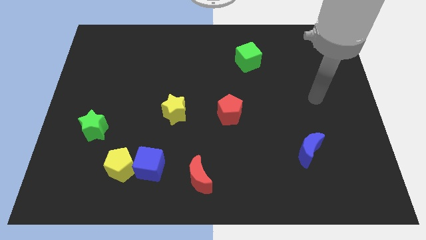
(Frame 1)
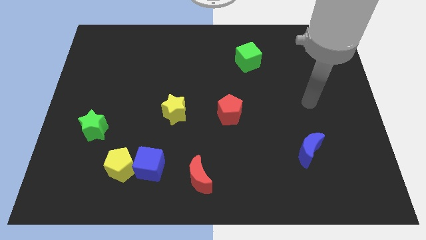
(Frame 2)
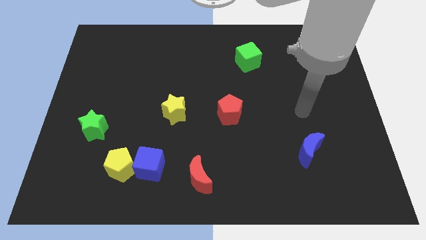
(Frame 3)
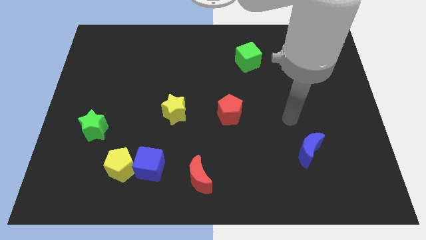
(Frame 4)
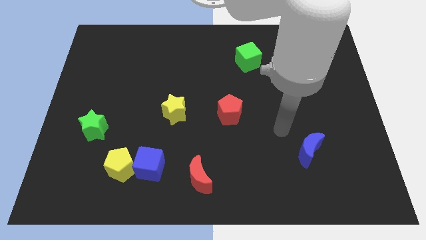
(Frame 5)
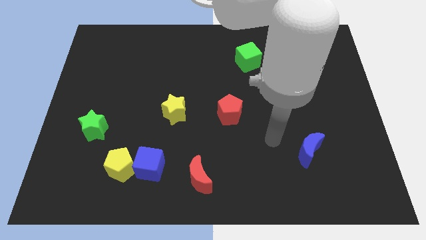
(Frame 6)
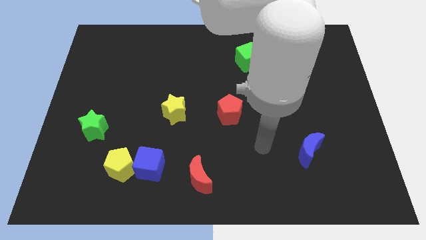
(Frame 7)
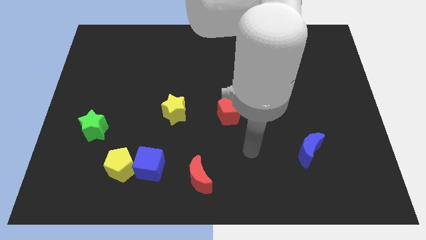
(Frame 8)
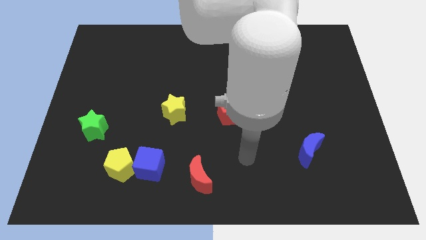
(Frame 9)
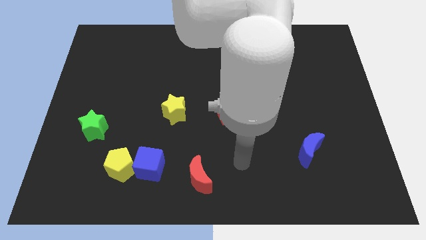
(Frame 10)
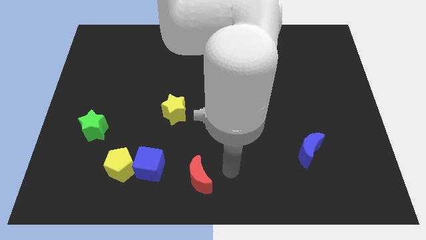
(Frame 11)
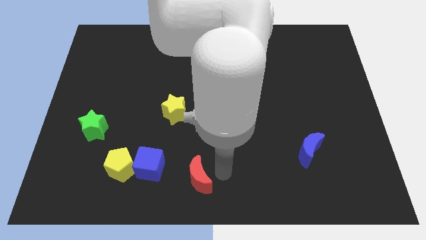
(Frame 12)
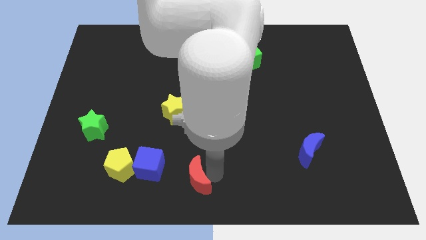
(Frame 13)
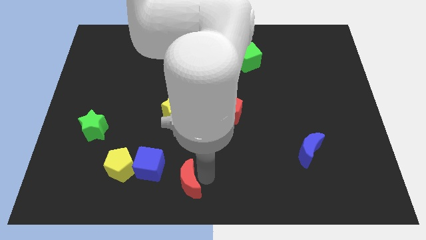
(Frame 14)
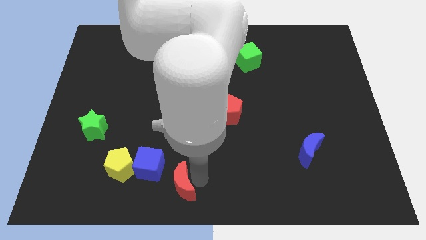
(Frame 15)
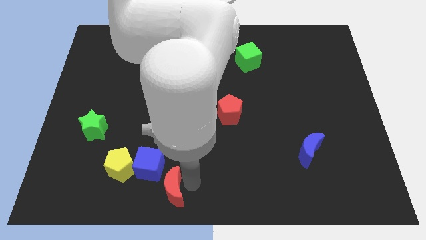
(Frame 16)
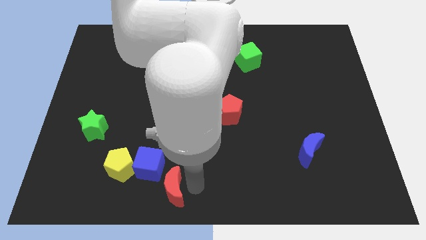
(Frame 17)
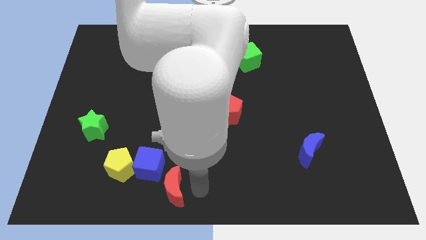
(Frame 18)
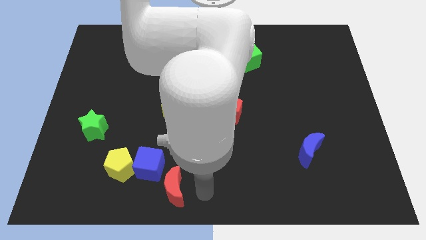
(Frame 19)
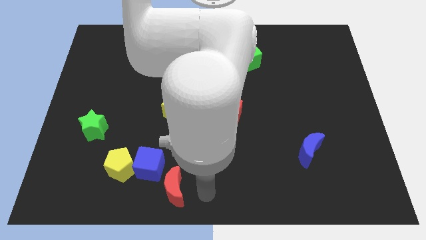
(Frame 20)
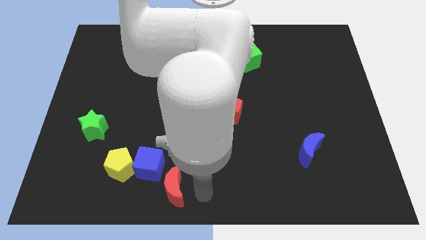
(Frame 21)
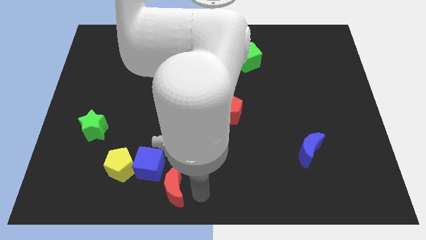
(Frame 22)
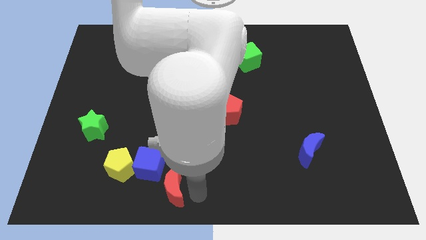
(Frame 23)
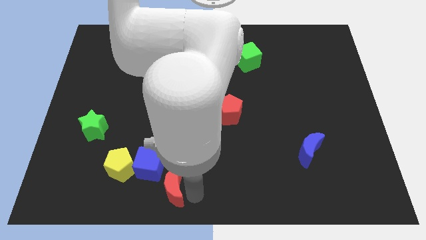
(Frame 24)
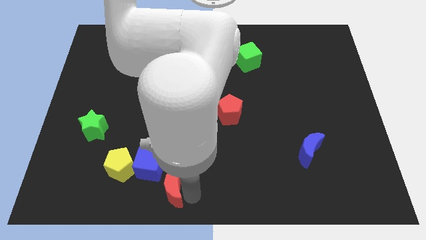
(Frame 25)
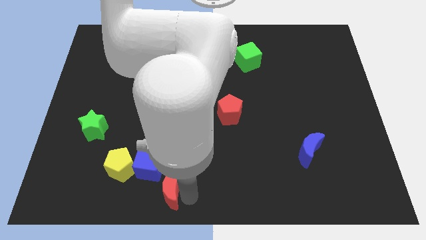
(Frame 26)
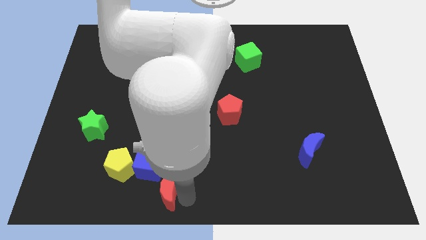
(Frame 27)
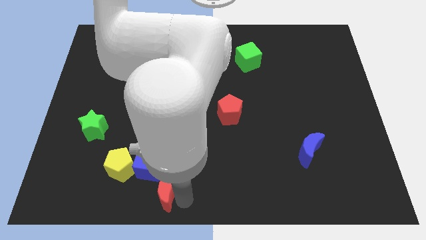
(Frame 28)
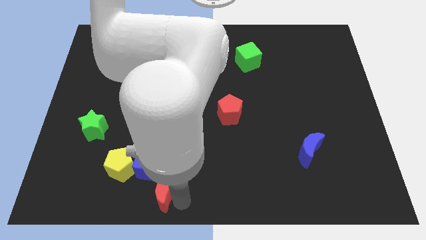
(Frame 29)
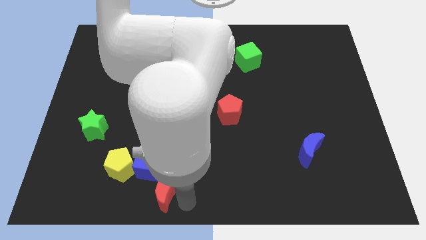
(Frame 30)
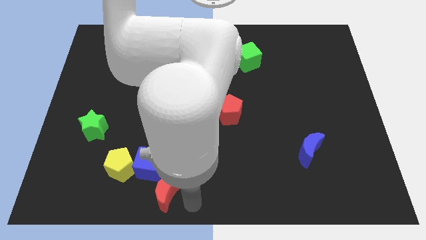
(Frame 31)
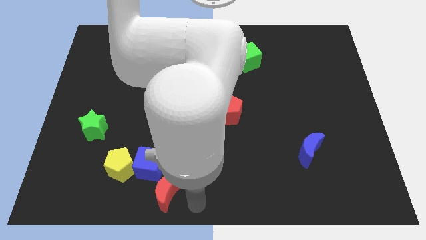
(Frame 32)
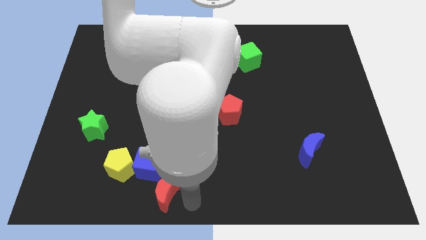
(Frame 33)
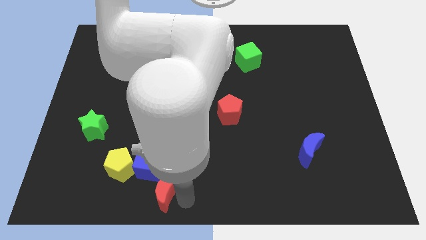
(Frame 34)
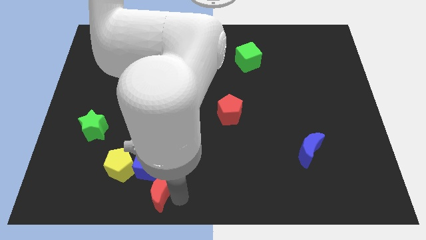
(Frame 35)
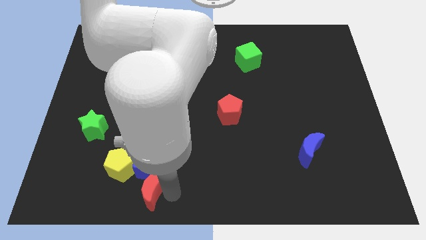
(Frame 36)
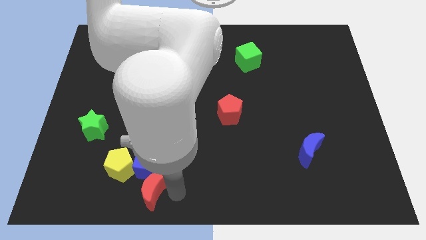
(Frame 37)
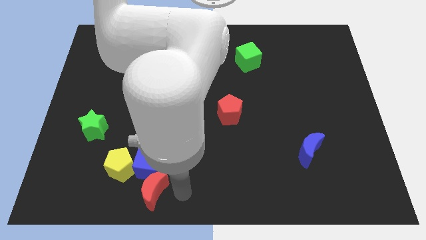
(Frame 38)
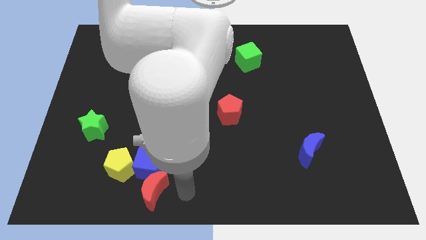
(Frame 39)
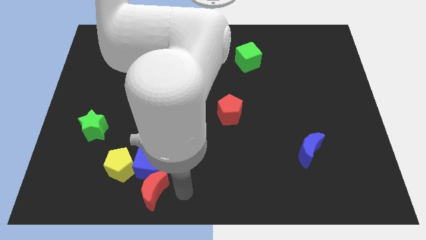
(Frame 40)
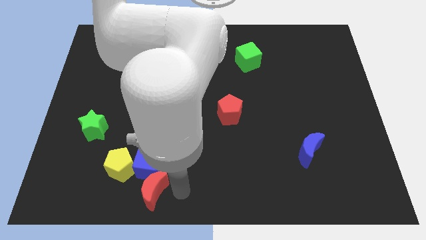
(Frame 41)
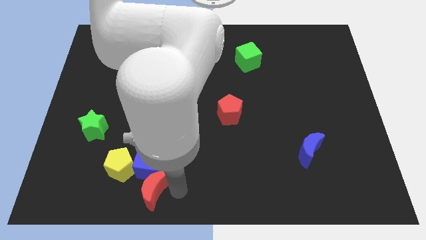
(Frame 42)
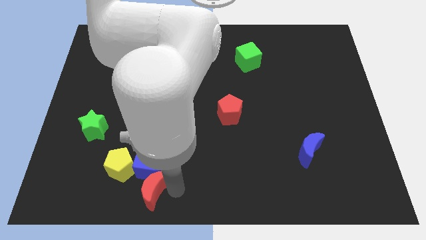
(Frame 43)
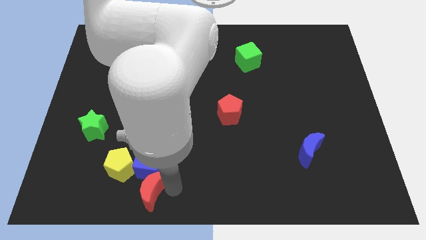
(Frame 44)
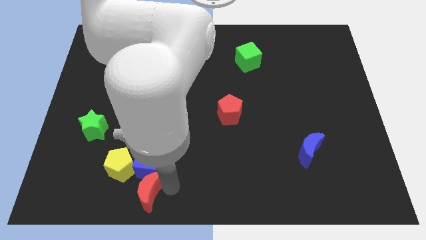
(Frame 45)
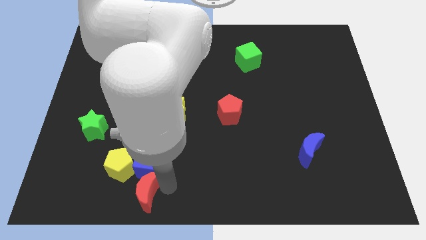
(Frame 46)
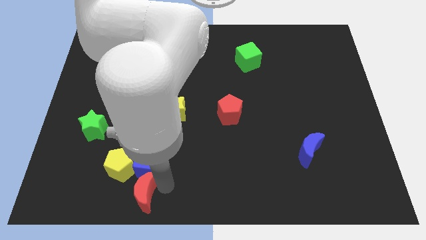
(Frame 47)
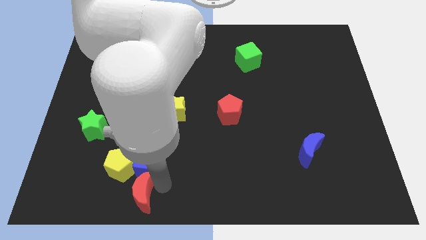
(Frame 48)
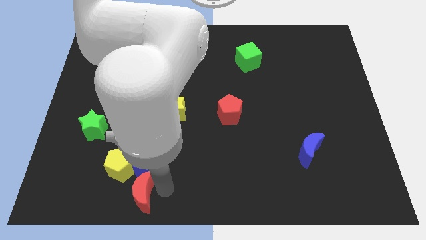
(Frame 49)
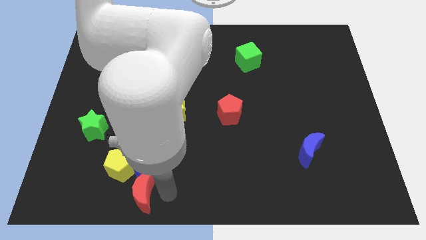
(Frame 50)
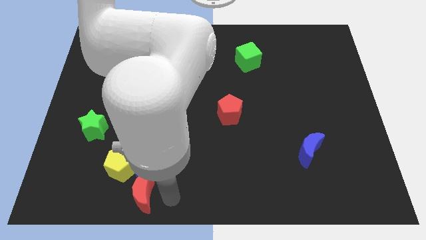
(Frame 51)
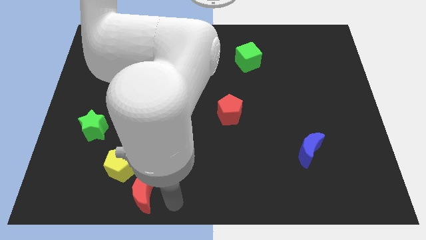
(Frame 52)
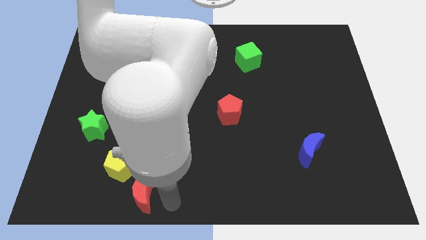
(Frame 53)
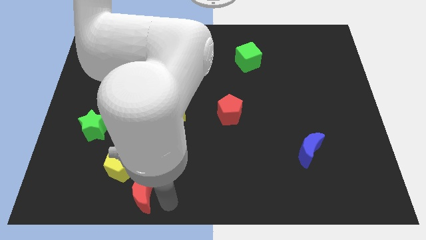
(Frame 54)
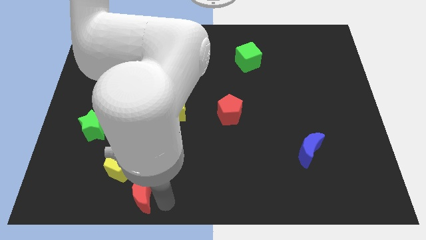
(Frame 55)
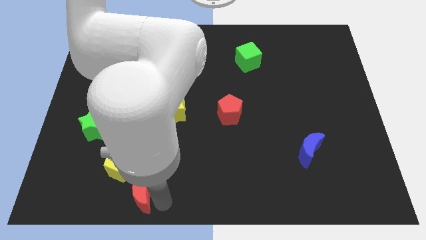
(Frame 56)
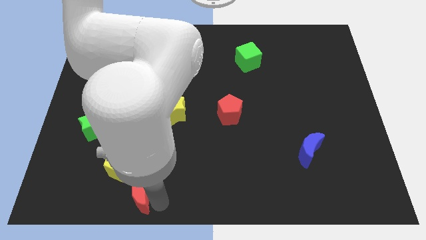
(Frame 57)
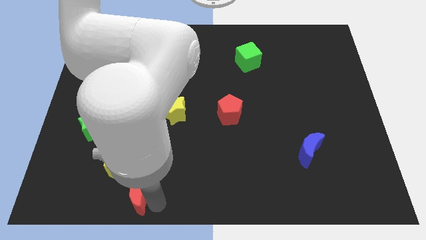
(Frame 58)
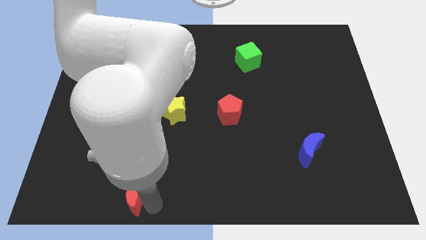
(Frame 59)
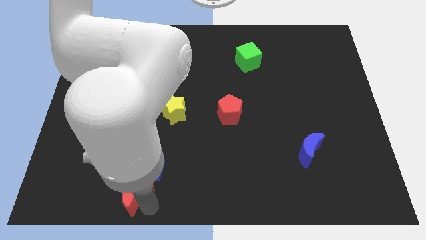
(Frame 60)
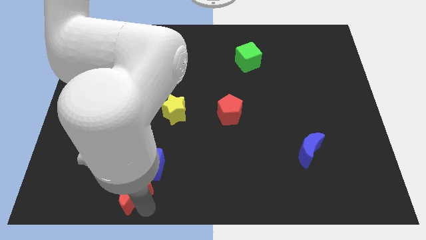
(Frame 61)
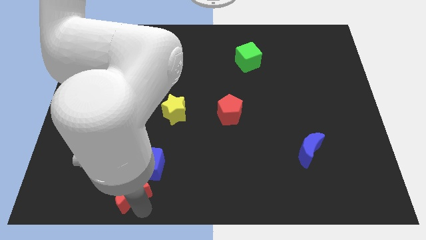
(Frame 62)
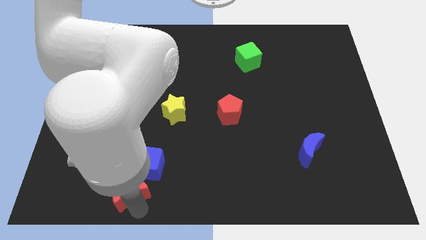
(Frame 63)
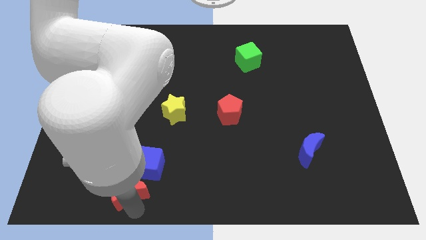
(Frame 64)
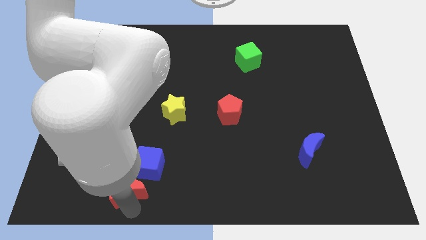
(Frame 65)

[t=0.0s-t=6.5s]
put the red moon to the yellow pentagon

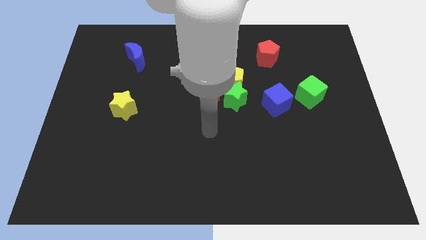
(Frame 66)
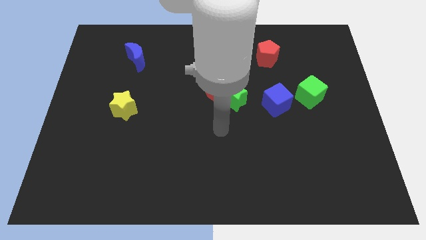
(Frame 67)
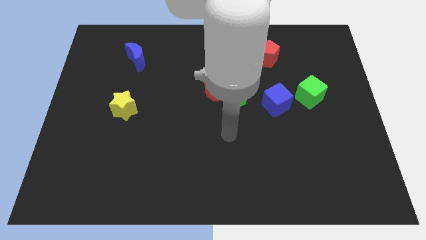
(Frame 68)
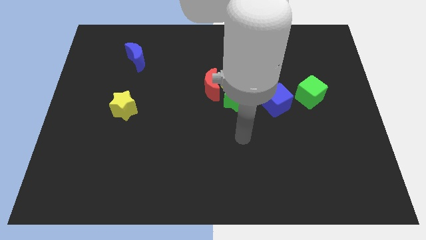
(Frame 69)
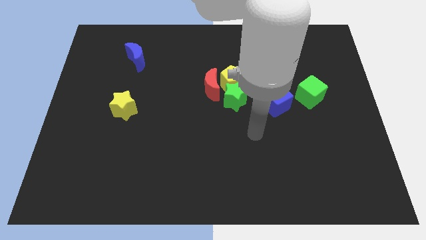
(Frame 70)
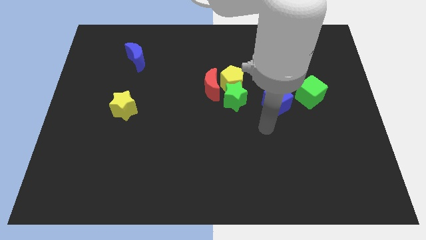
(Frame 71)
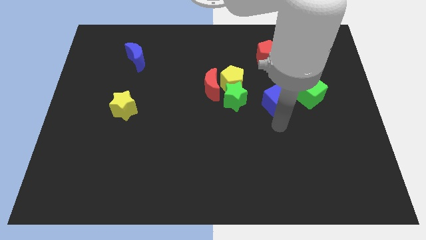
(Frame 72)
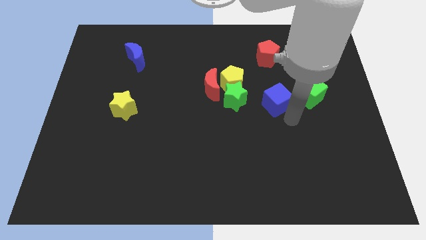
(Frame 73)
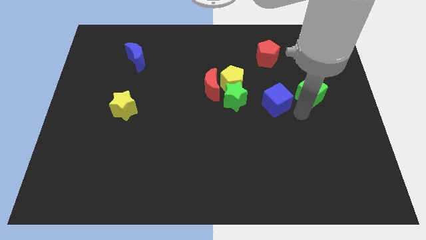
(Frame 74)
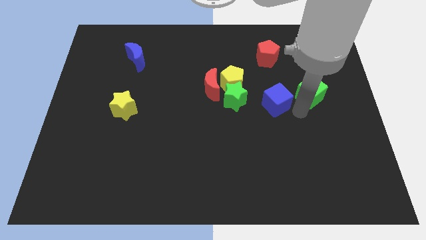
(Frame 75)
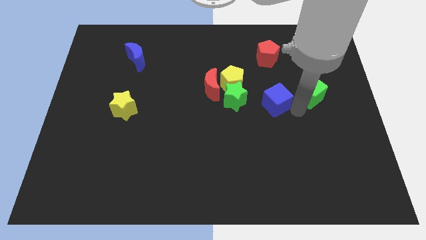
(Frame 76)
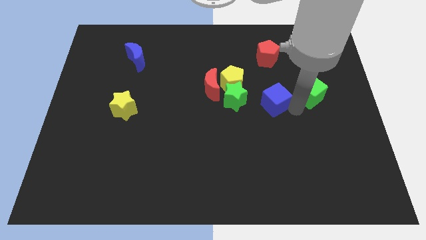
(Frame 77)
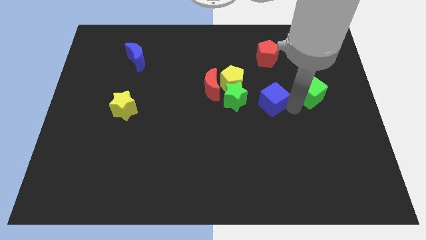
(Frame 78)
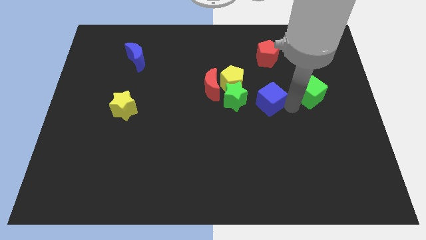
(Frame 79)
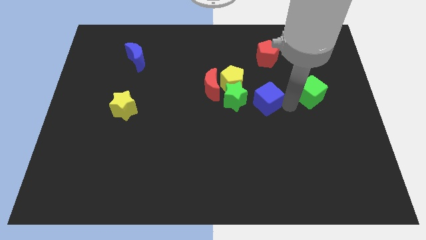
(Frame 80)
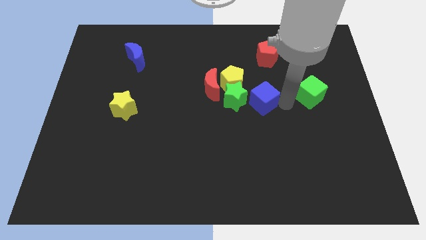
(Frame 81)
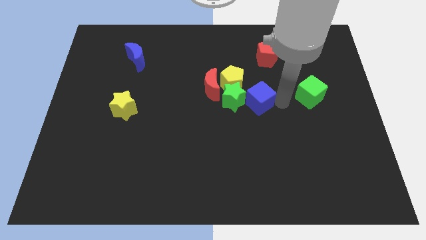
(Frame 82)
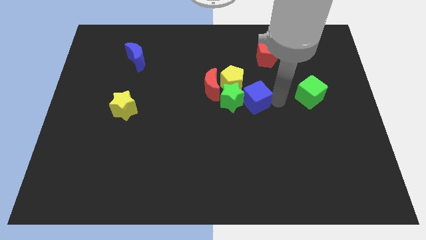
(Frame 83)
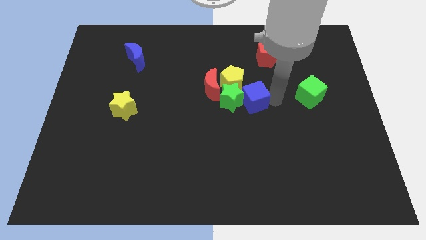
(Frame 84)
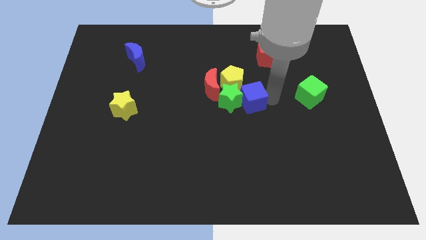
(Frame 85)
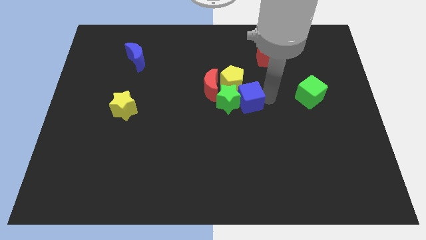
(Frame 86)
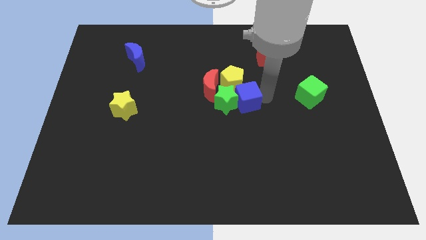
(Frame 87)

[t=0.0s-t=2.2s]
put the blue cube to the yellow pentagon
